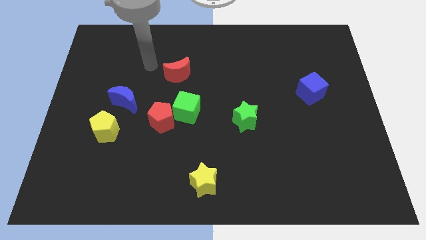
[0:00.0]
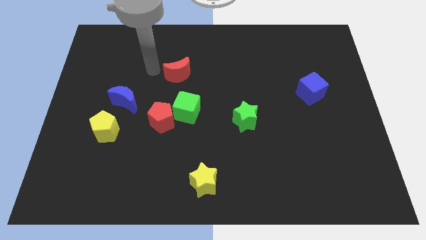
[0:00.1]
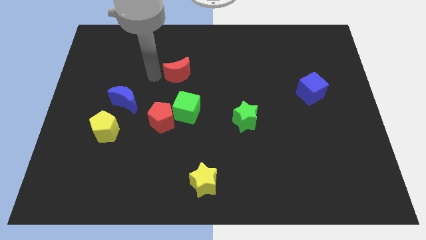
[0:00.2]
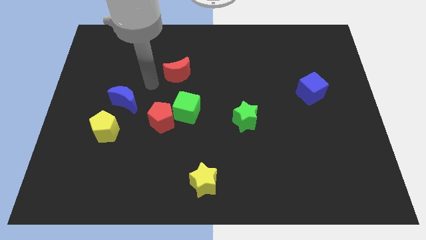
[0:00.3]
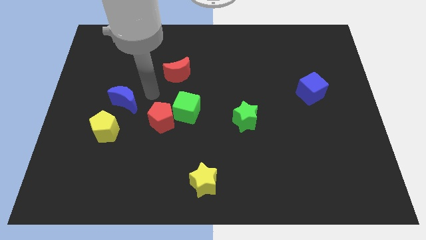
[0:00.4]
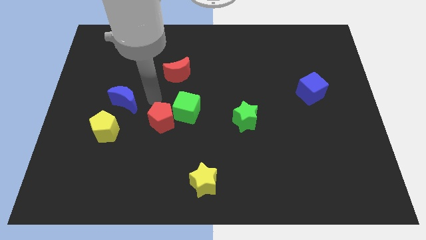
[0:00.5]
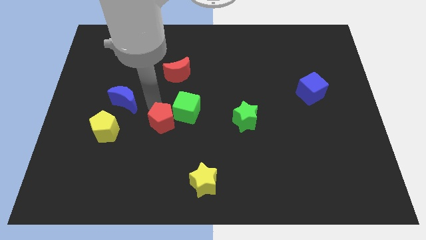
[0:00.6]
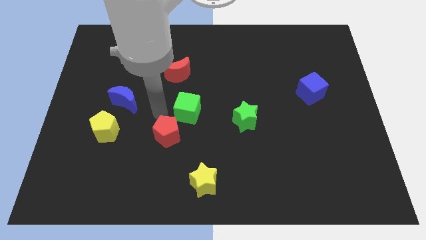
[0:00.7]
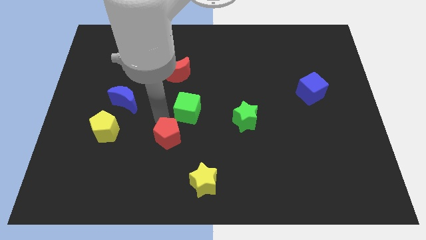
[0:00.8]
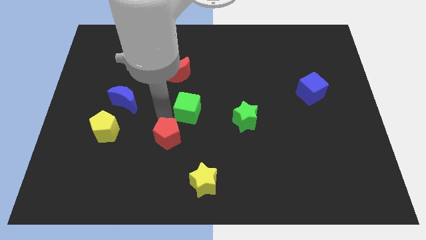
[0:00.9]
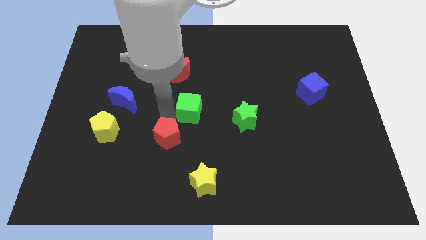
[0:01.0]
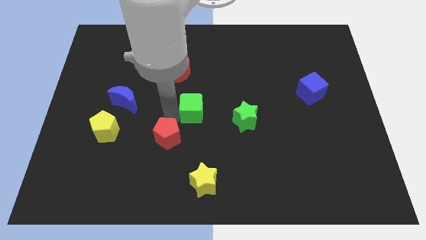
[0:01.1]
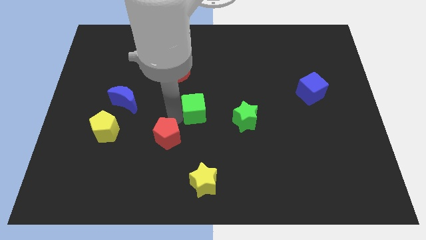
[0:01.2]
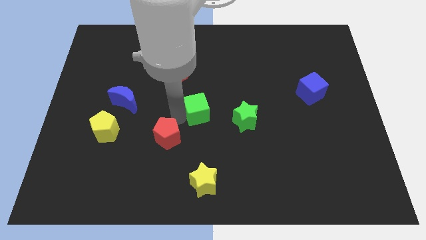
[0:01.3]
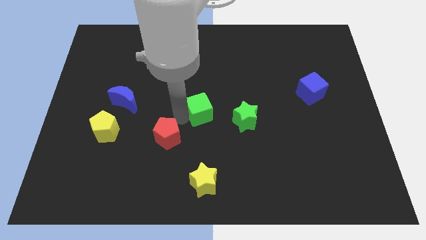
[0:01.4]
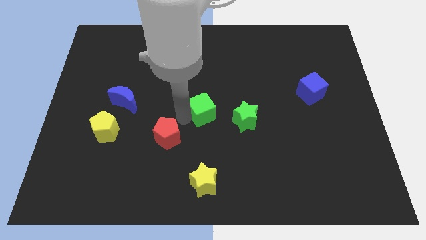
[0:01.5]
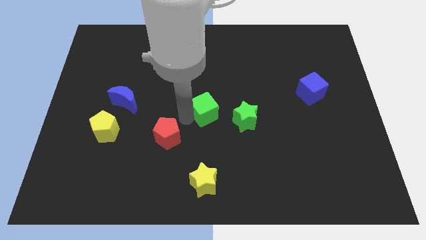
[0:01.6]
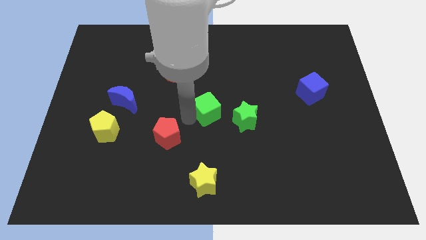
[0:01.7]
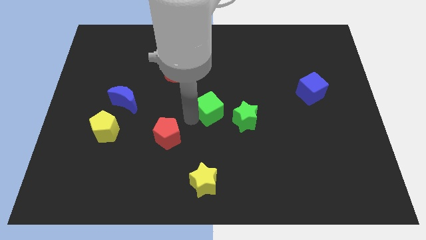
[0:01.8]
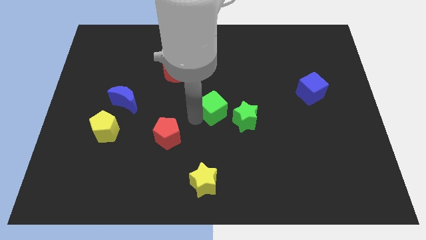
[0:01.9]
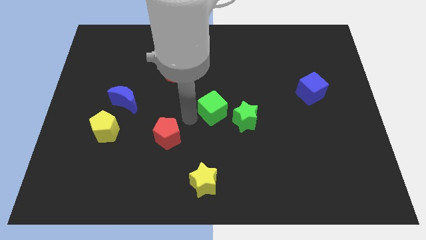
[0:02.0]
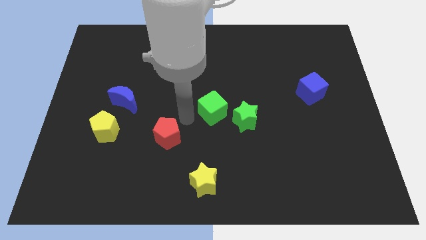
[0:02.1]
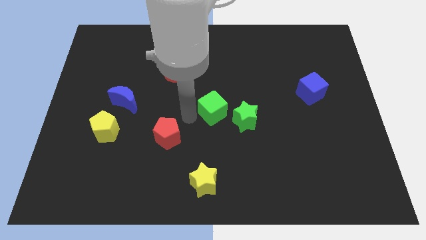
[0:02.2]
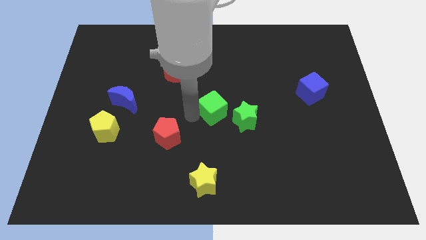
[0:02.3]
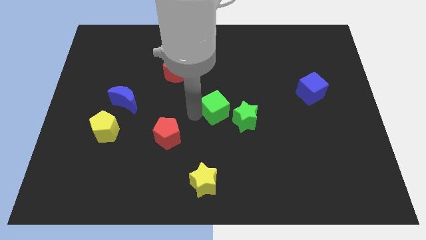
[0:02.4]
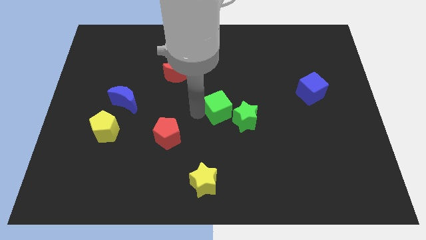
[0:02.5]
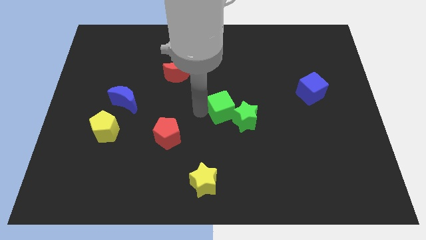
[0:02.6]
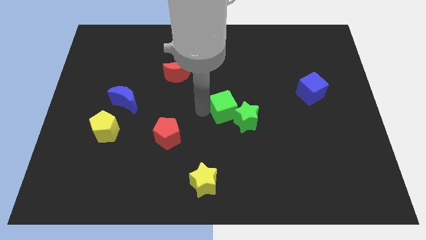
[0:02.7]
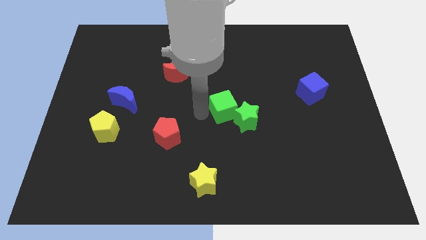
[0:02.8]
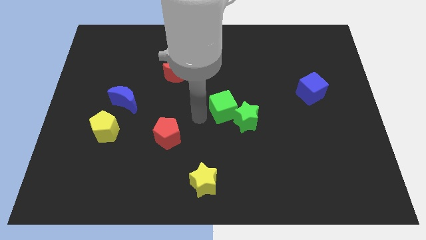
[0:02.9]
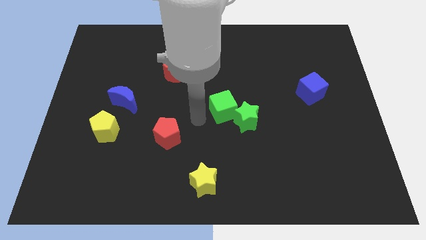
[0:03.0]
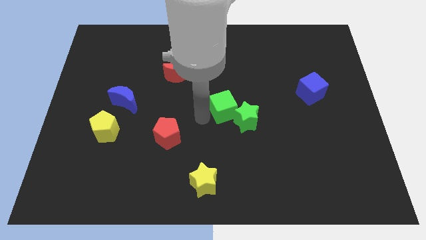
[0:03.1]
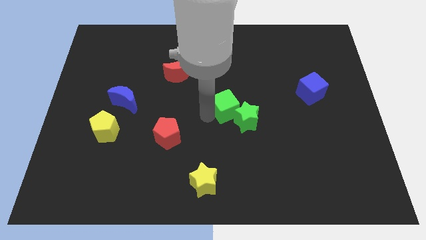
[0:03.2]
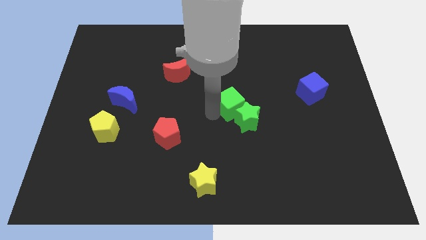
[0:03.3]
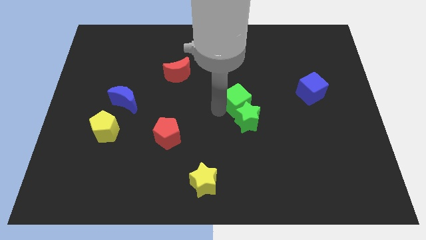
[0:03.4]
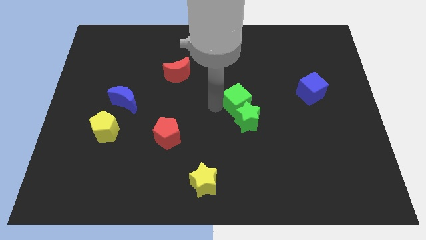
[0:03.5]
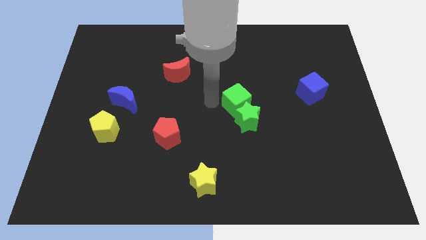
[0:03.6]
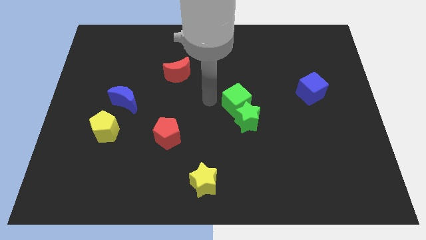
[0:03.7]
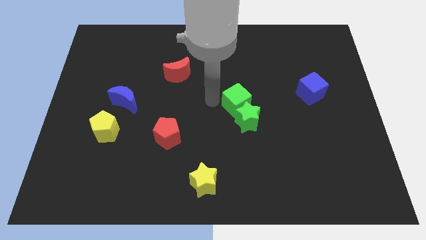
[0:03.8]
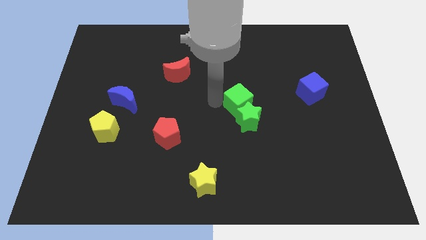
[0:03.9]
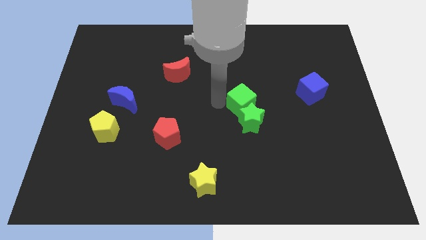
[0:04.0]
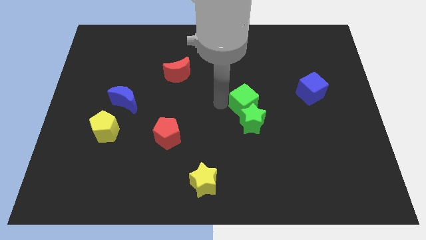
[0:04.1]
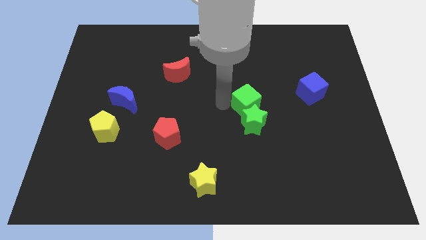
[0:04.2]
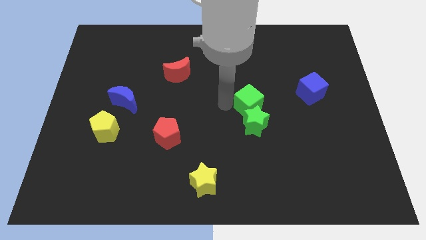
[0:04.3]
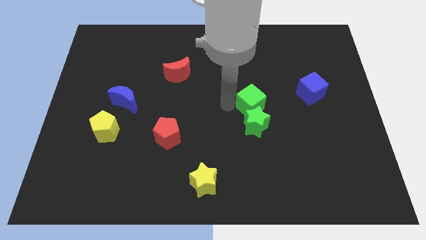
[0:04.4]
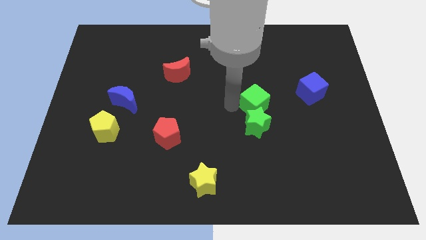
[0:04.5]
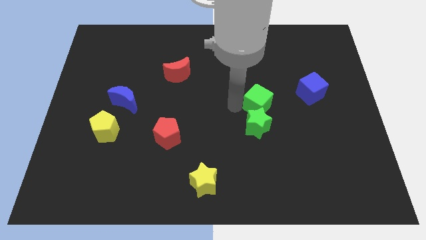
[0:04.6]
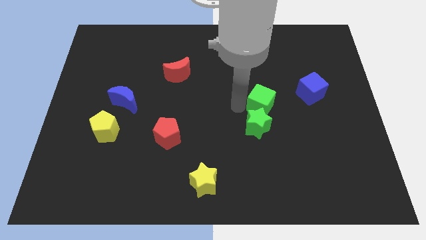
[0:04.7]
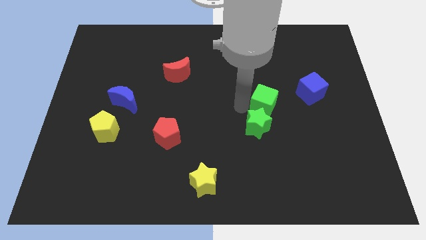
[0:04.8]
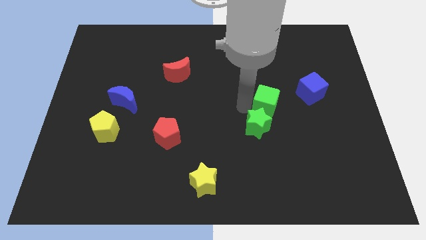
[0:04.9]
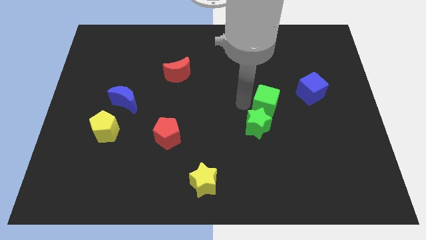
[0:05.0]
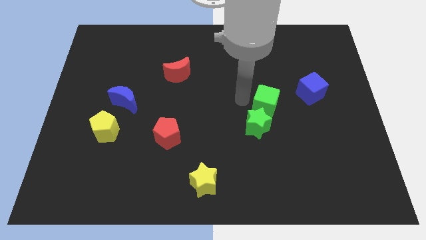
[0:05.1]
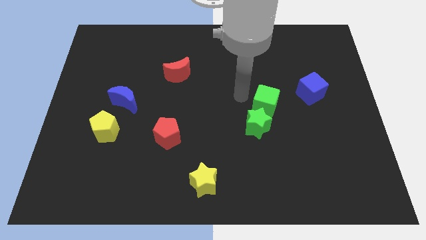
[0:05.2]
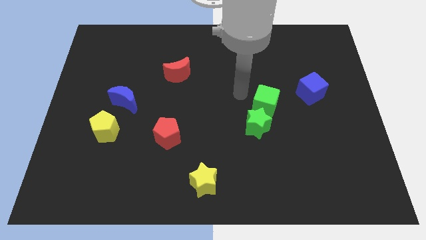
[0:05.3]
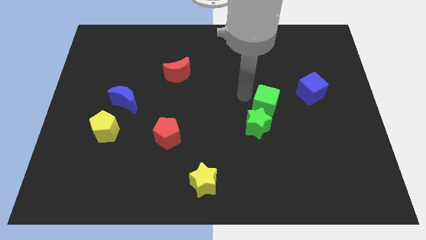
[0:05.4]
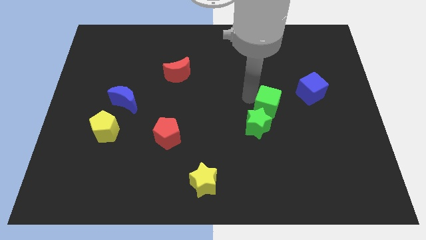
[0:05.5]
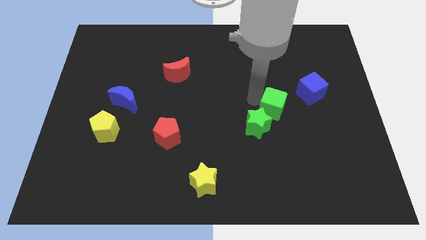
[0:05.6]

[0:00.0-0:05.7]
slide the green cube to the right

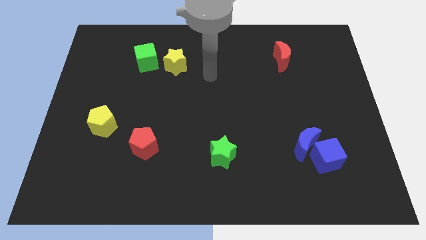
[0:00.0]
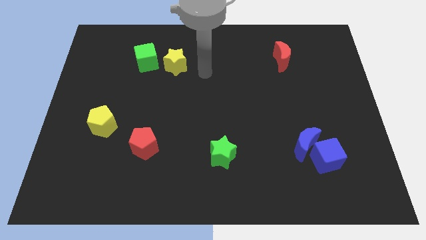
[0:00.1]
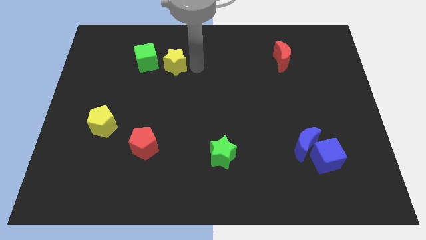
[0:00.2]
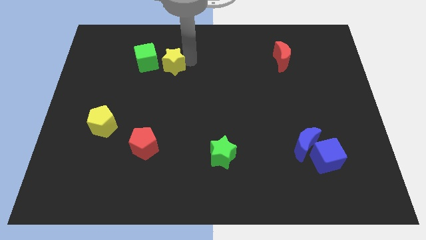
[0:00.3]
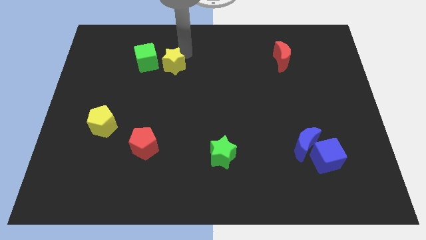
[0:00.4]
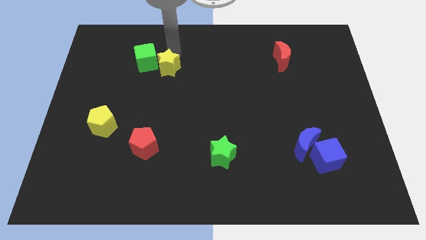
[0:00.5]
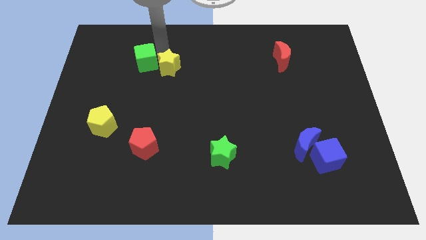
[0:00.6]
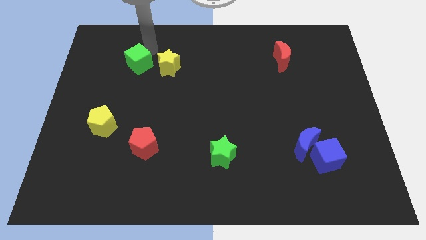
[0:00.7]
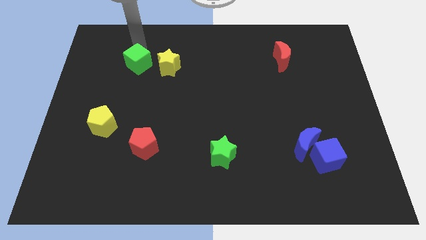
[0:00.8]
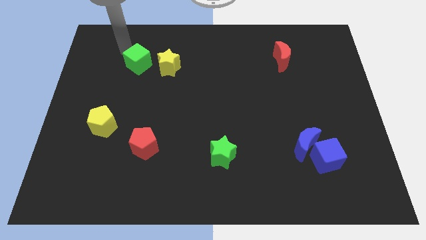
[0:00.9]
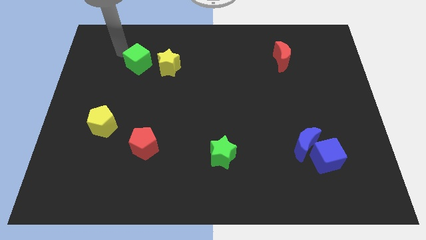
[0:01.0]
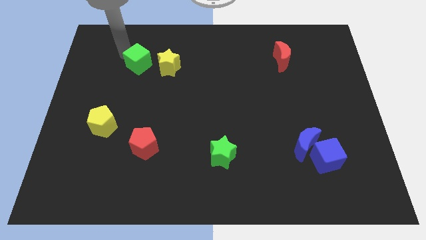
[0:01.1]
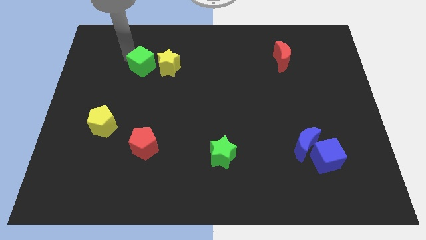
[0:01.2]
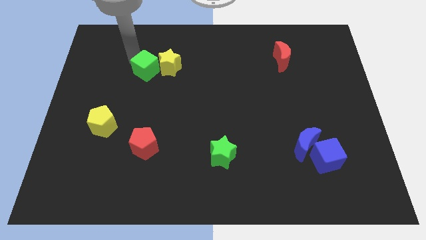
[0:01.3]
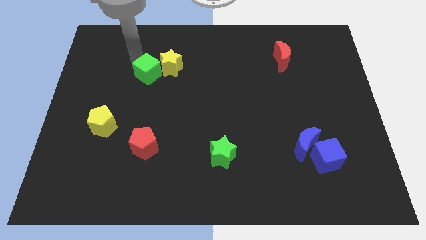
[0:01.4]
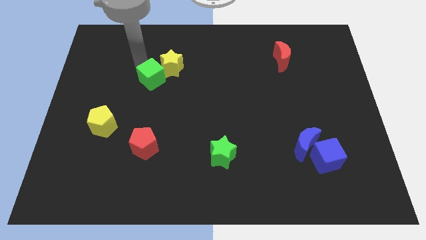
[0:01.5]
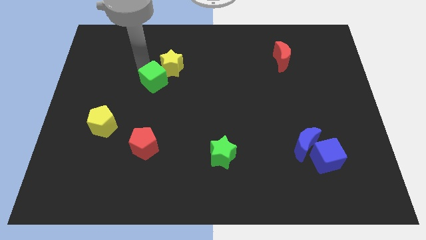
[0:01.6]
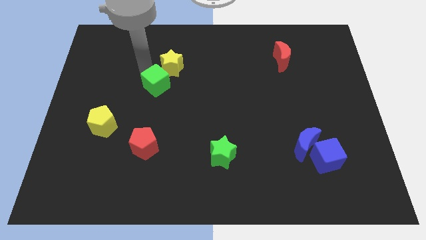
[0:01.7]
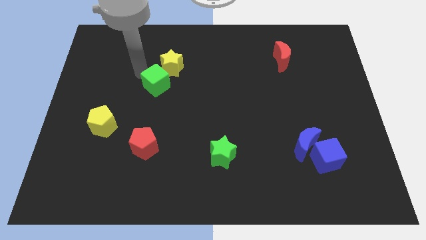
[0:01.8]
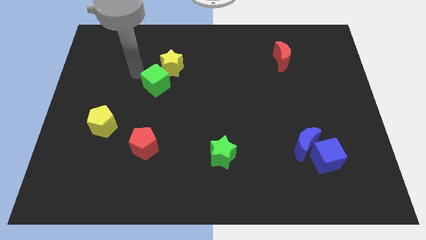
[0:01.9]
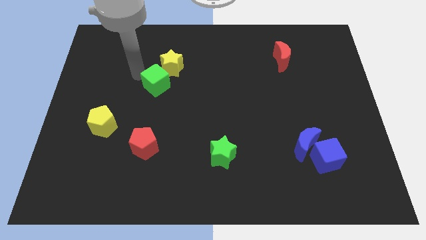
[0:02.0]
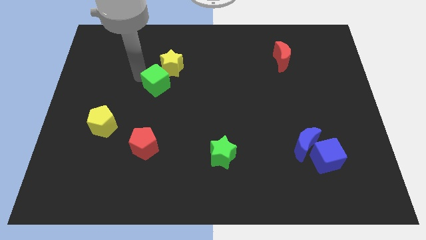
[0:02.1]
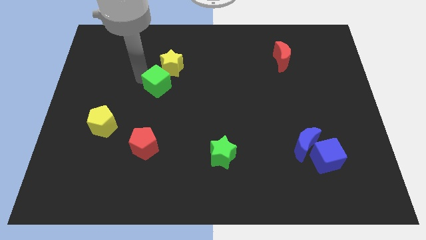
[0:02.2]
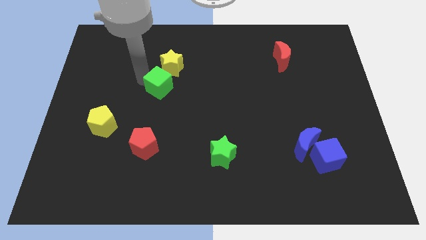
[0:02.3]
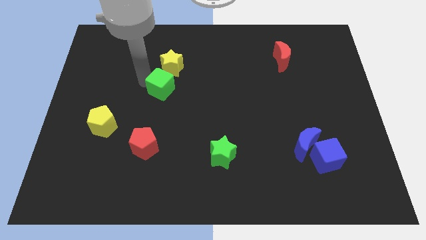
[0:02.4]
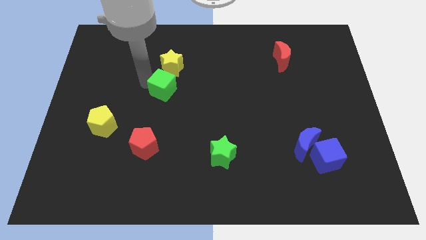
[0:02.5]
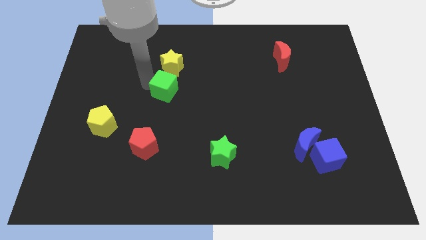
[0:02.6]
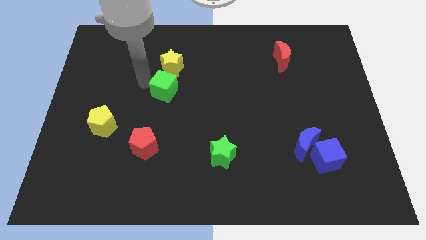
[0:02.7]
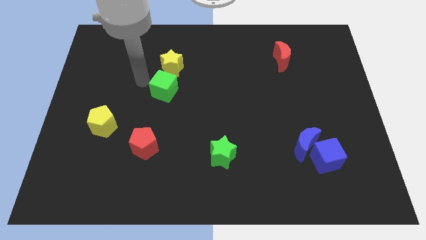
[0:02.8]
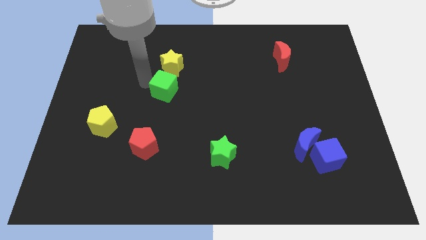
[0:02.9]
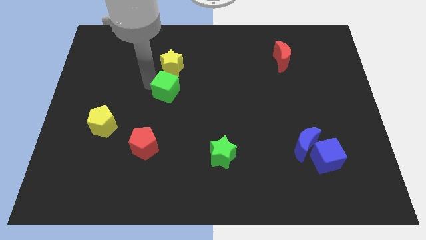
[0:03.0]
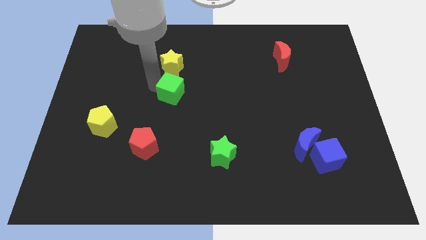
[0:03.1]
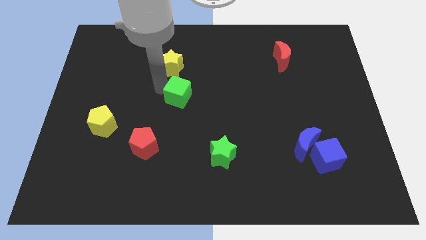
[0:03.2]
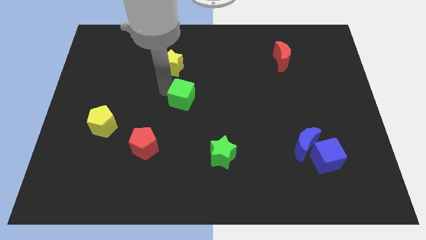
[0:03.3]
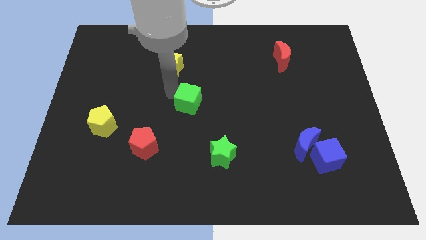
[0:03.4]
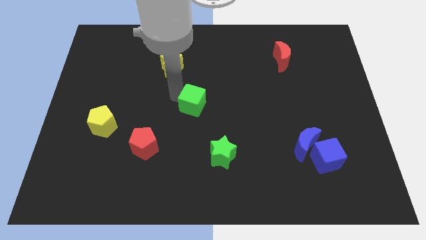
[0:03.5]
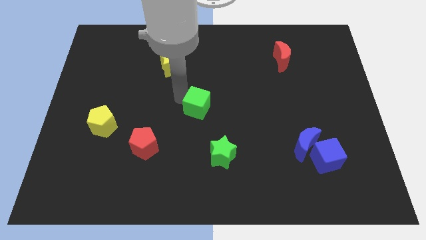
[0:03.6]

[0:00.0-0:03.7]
move the green cube downwards and then right
